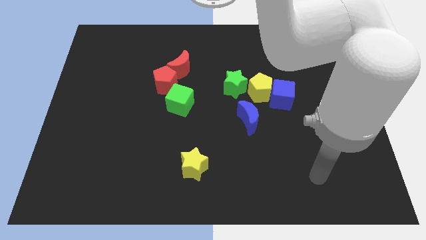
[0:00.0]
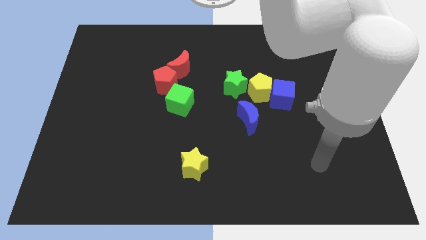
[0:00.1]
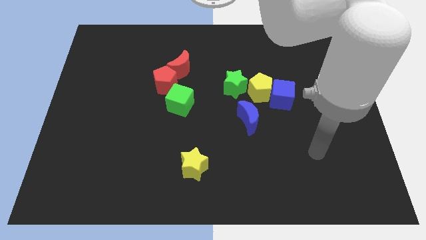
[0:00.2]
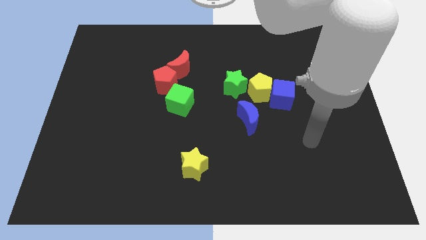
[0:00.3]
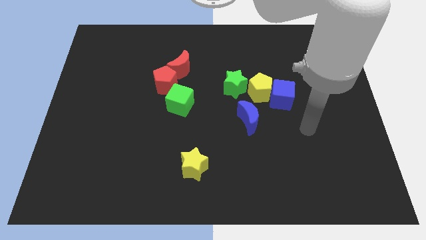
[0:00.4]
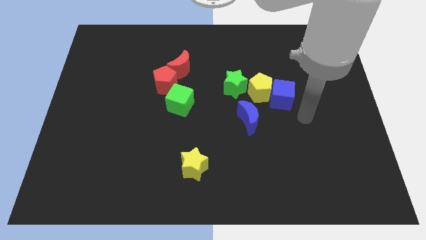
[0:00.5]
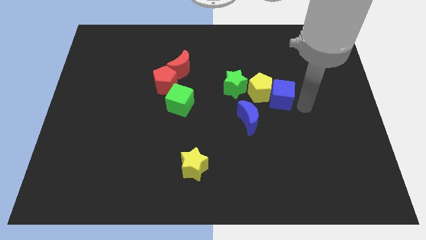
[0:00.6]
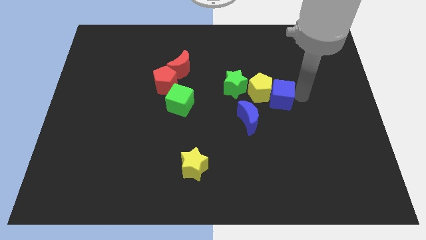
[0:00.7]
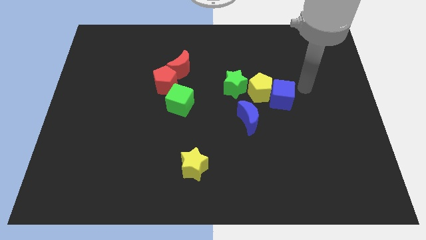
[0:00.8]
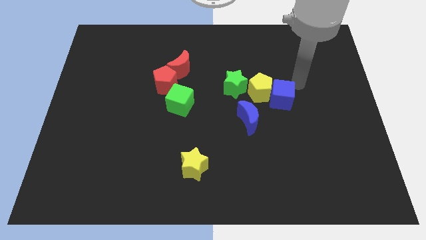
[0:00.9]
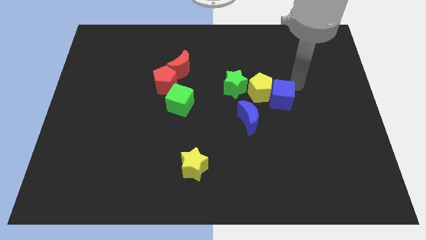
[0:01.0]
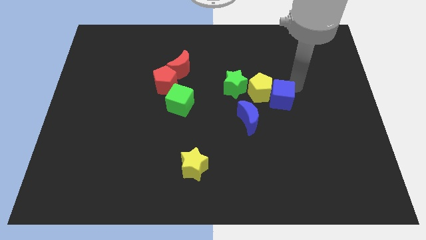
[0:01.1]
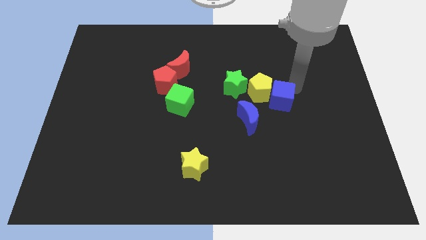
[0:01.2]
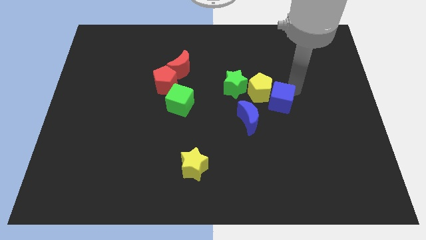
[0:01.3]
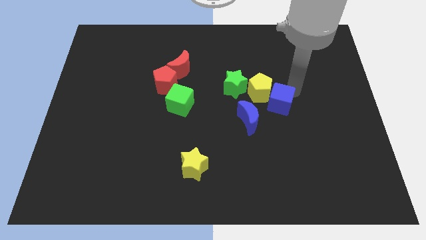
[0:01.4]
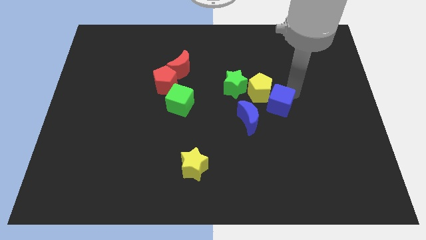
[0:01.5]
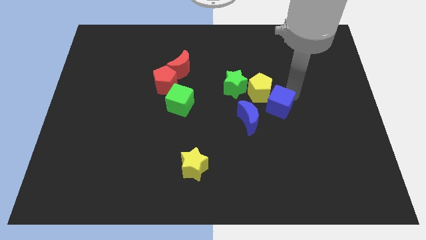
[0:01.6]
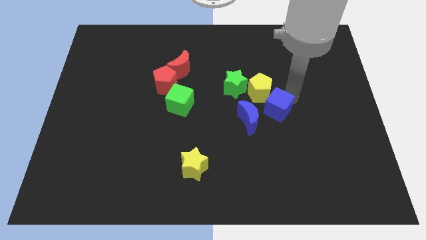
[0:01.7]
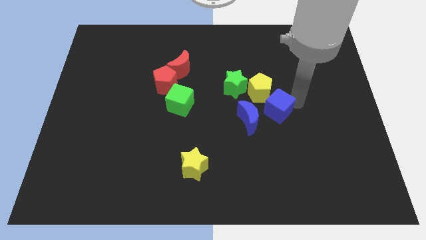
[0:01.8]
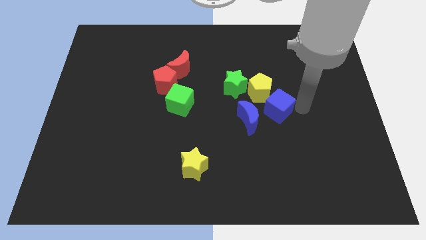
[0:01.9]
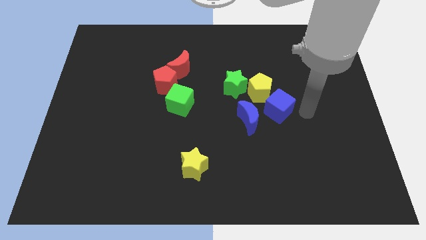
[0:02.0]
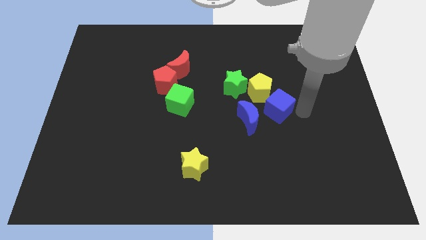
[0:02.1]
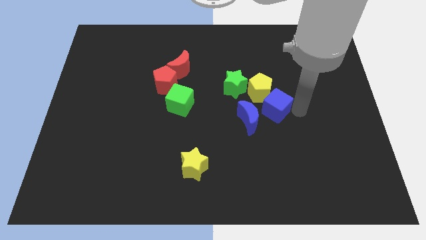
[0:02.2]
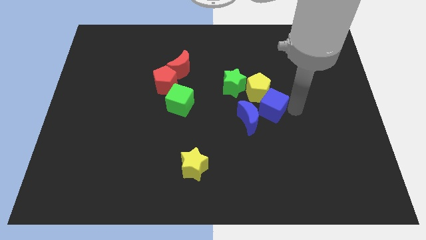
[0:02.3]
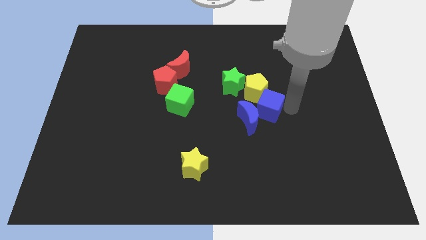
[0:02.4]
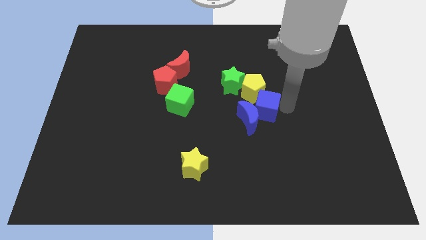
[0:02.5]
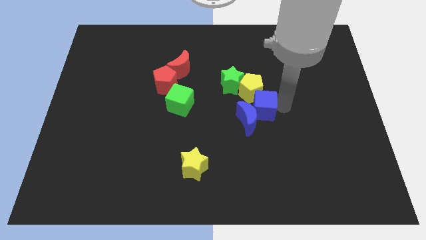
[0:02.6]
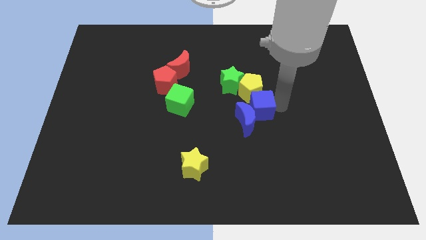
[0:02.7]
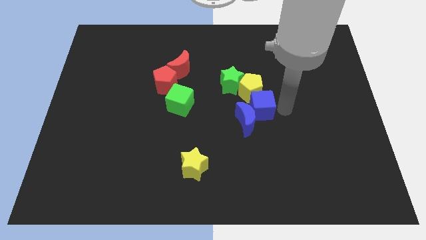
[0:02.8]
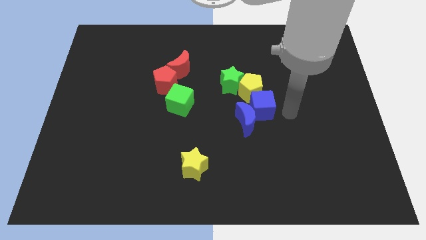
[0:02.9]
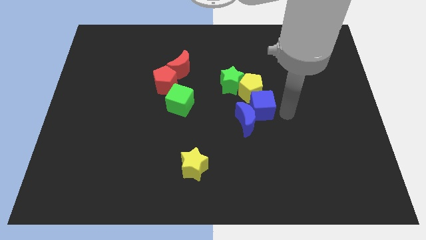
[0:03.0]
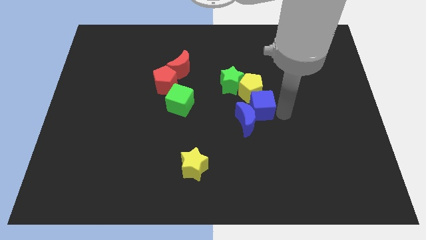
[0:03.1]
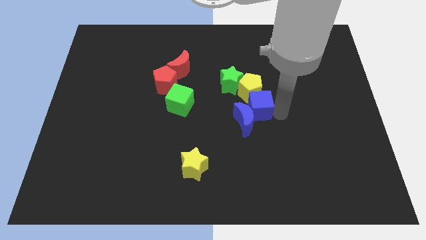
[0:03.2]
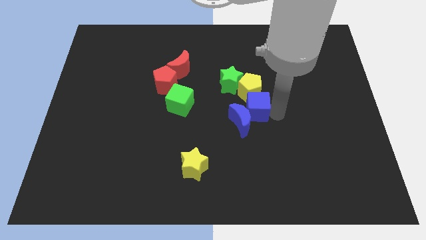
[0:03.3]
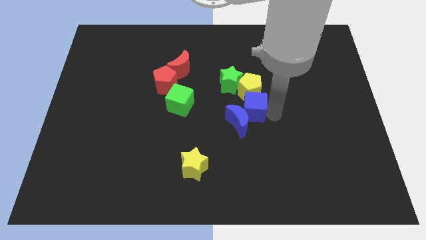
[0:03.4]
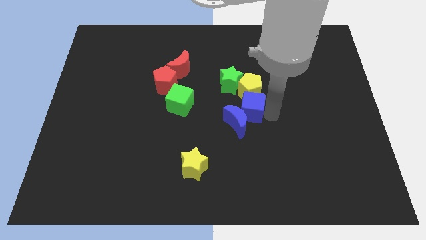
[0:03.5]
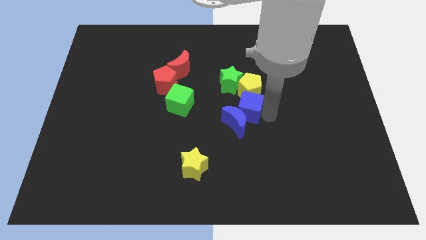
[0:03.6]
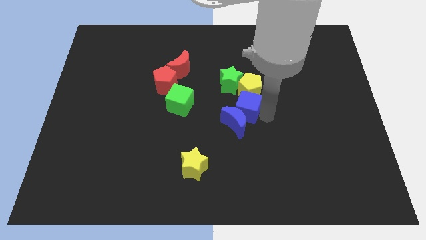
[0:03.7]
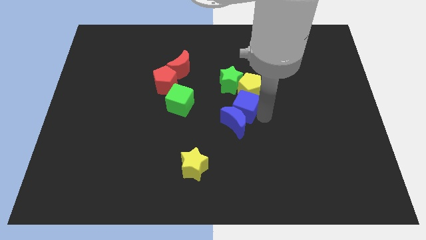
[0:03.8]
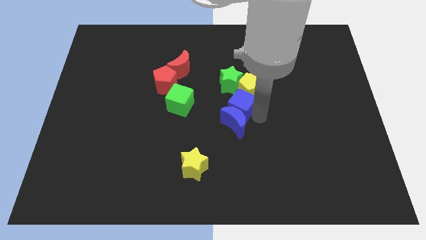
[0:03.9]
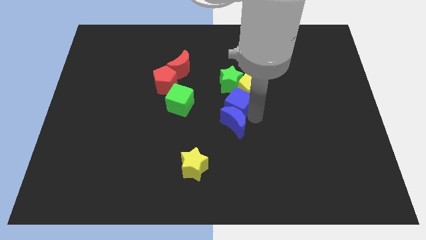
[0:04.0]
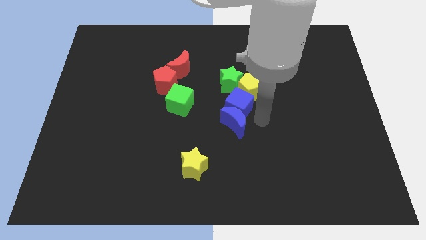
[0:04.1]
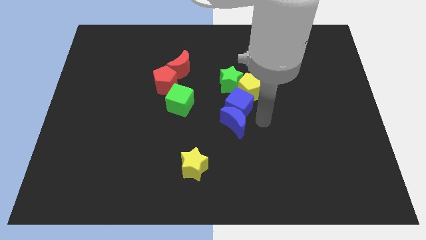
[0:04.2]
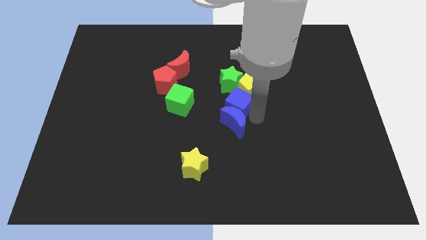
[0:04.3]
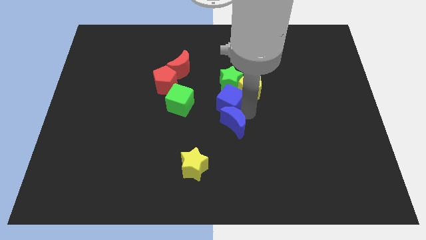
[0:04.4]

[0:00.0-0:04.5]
put the blue cube just left of the yellow pentagon

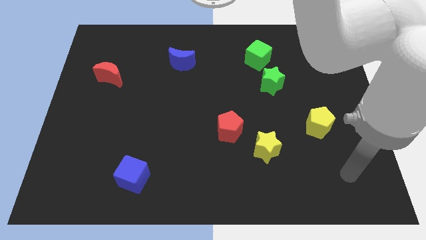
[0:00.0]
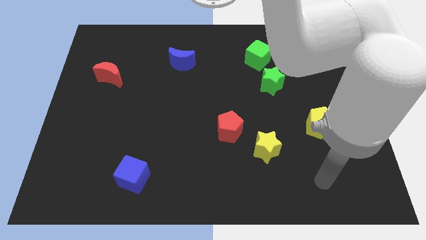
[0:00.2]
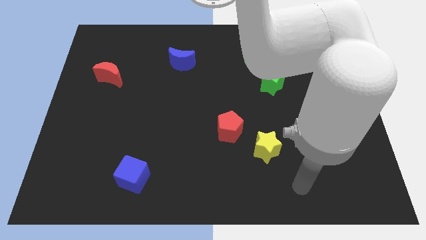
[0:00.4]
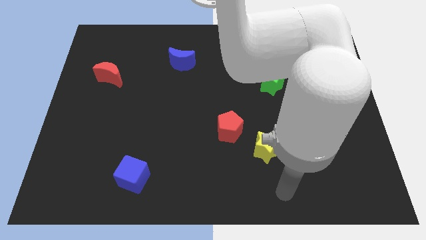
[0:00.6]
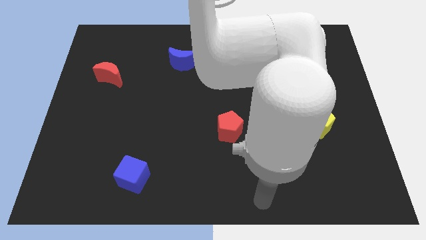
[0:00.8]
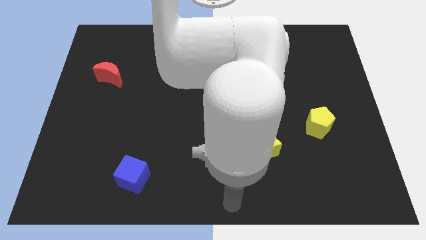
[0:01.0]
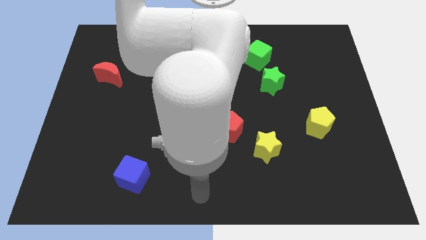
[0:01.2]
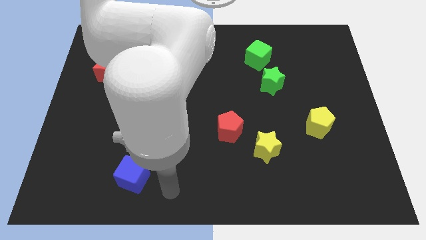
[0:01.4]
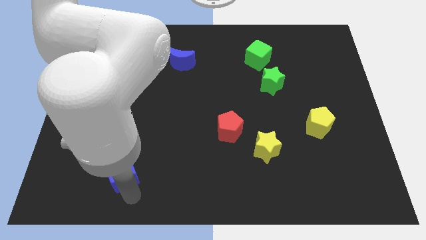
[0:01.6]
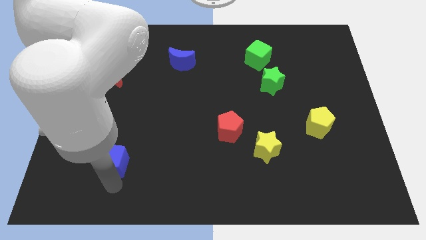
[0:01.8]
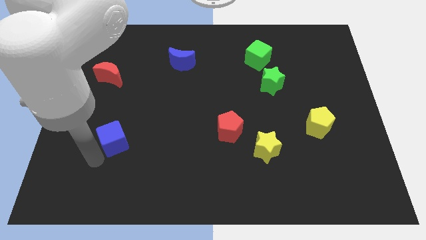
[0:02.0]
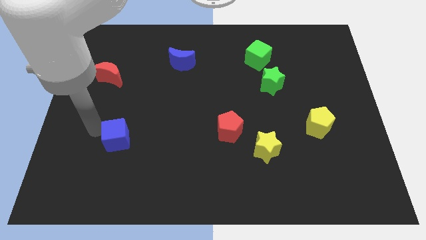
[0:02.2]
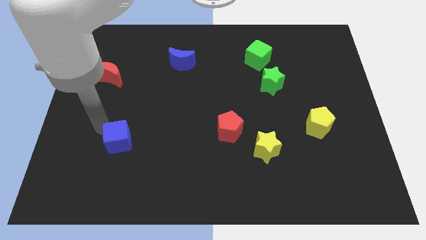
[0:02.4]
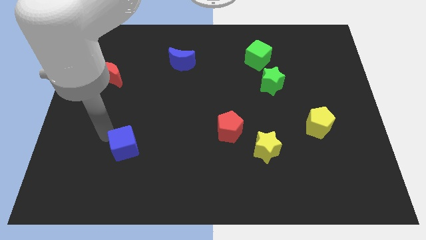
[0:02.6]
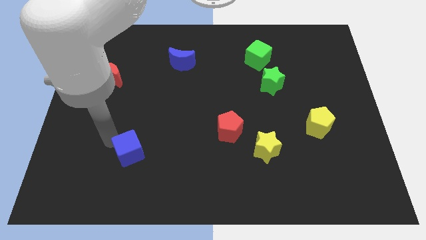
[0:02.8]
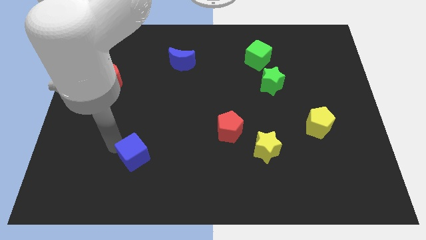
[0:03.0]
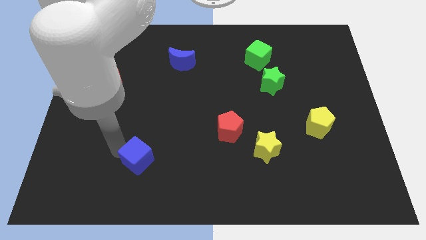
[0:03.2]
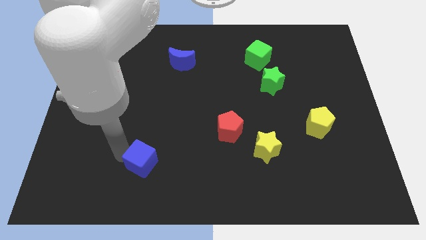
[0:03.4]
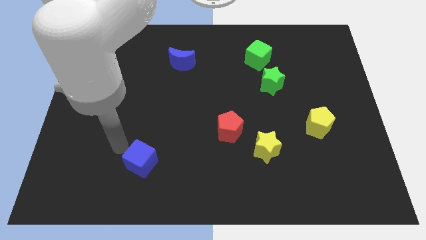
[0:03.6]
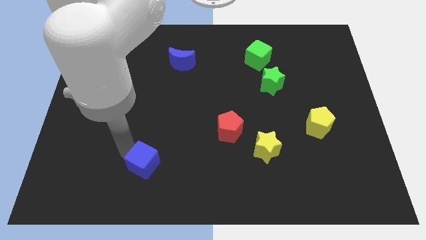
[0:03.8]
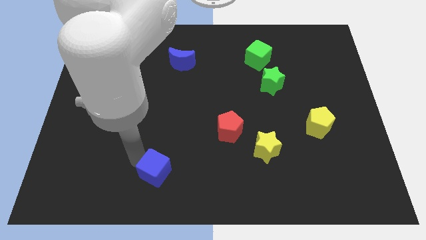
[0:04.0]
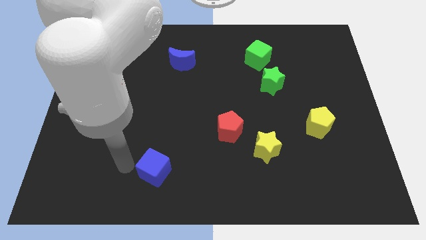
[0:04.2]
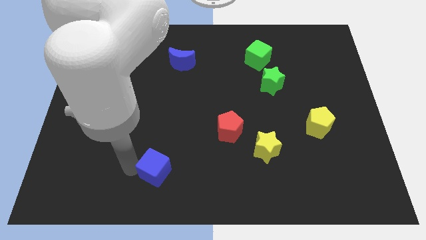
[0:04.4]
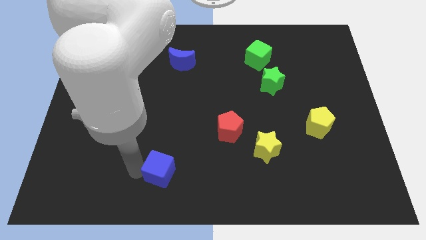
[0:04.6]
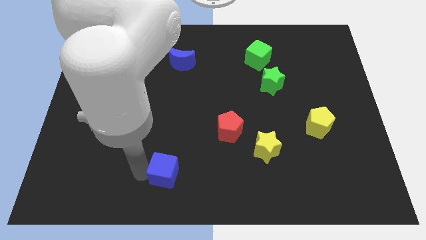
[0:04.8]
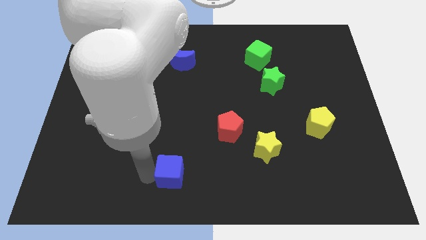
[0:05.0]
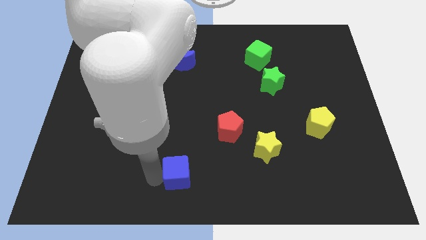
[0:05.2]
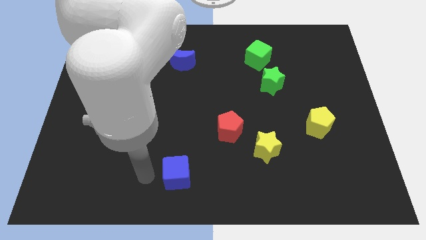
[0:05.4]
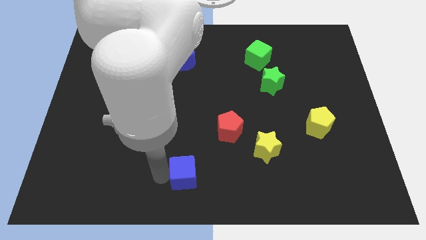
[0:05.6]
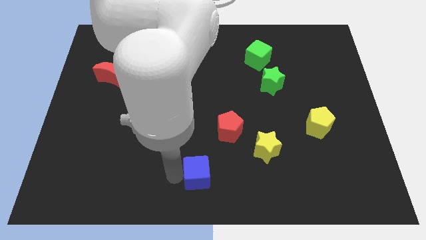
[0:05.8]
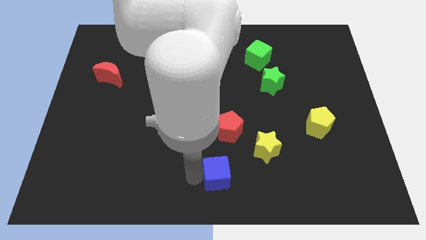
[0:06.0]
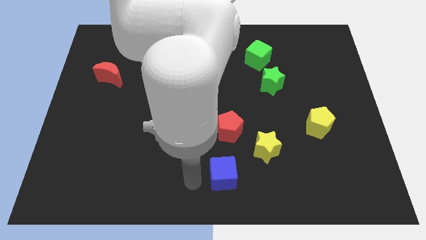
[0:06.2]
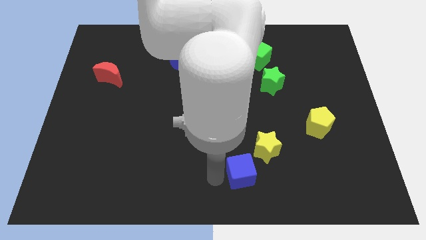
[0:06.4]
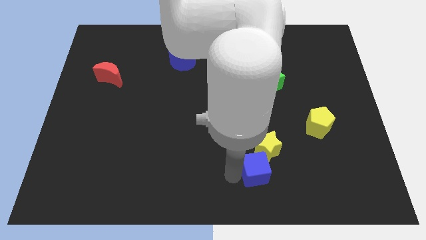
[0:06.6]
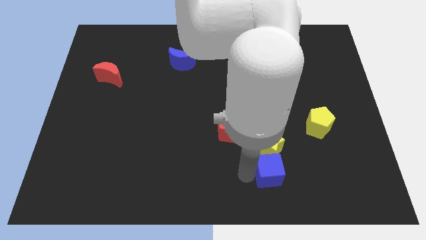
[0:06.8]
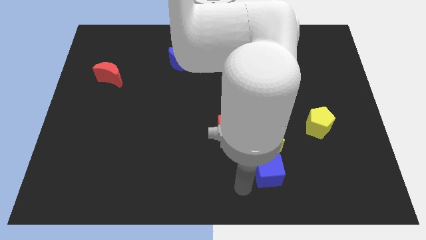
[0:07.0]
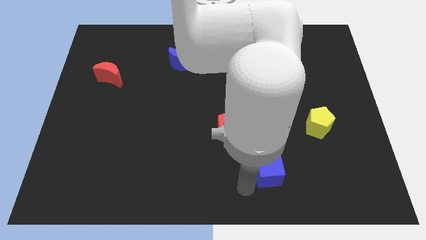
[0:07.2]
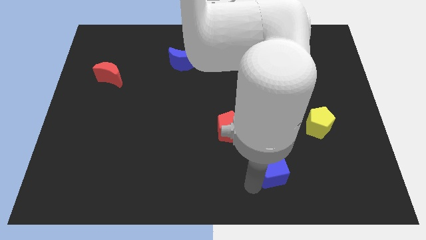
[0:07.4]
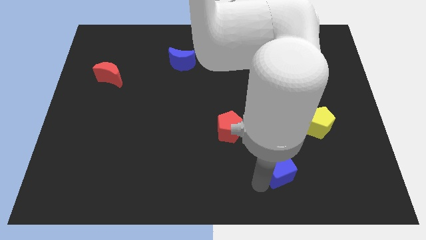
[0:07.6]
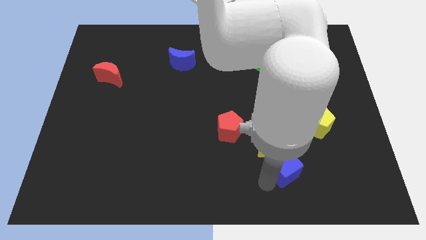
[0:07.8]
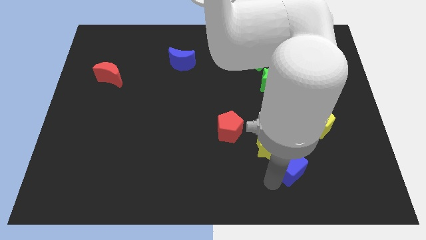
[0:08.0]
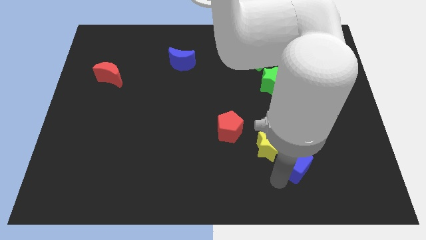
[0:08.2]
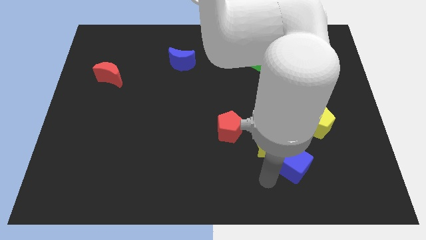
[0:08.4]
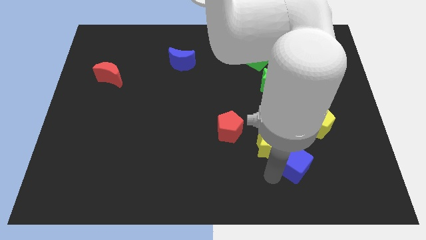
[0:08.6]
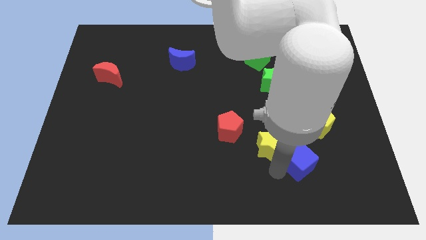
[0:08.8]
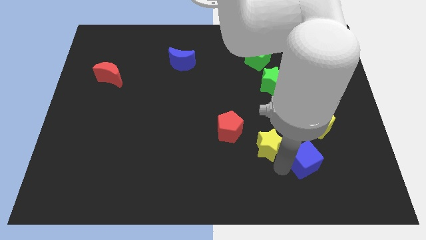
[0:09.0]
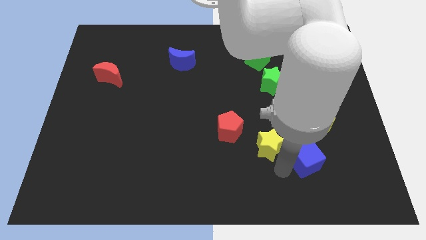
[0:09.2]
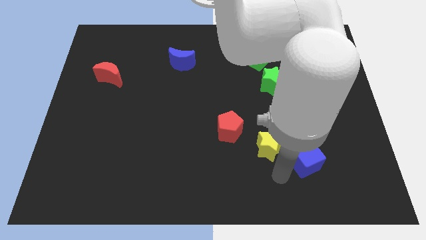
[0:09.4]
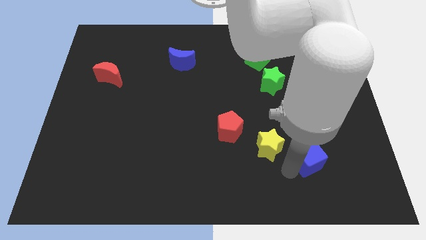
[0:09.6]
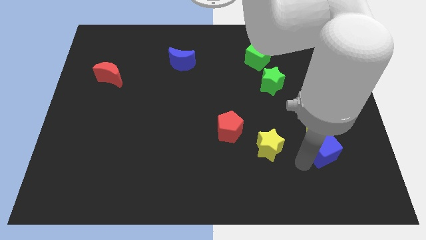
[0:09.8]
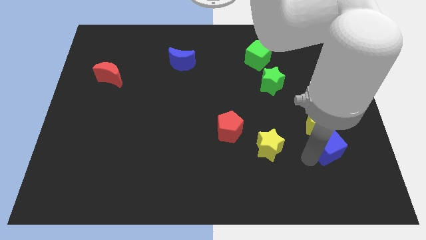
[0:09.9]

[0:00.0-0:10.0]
push the blue cube to the bottom right of the yellow pentagon
